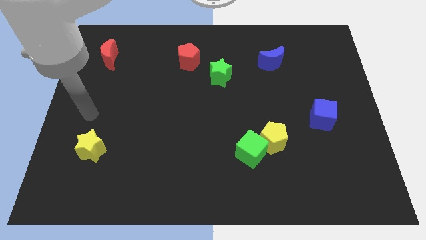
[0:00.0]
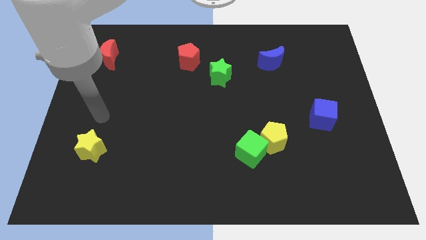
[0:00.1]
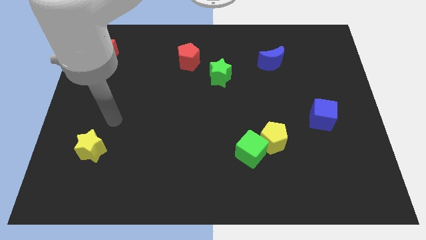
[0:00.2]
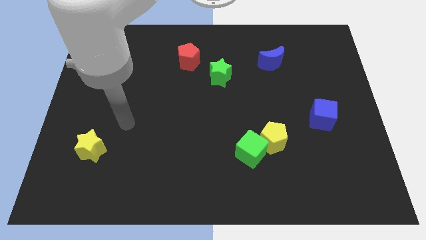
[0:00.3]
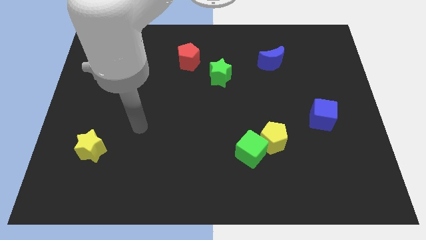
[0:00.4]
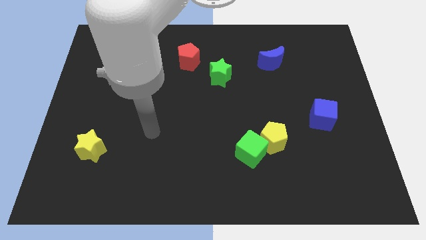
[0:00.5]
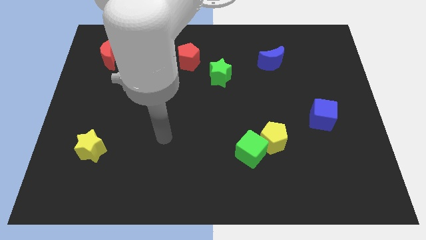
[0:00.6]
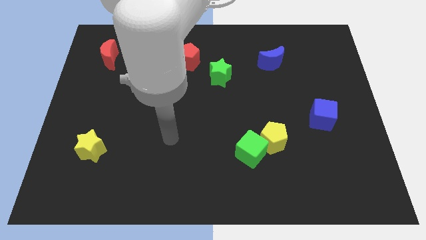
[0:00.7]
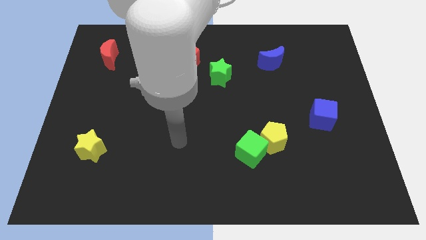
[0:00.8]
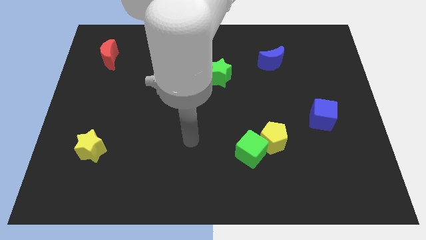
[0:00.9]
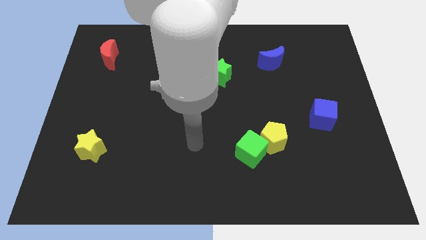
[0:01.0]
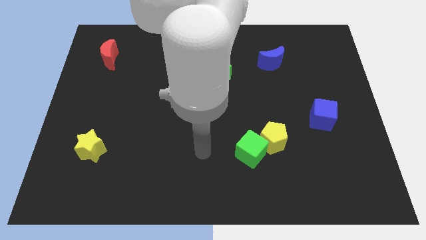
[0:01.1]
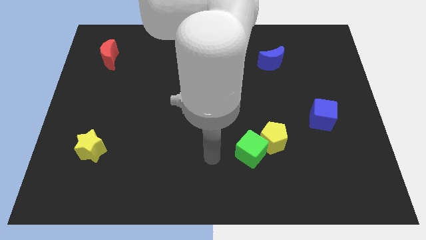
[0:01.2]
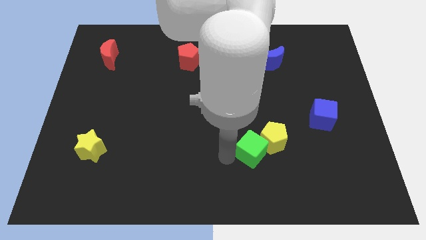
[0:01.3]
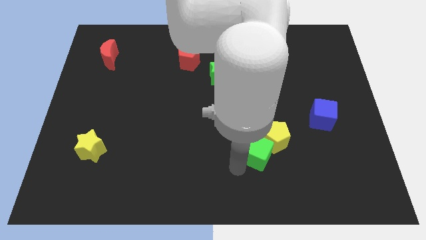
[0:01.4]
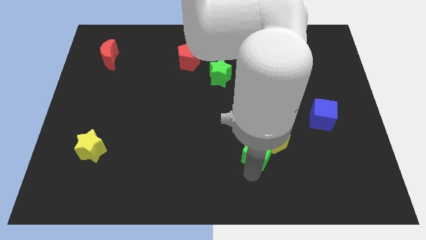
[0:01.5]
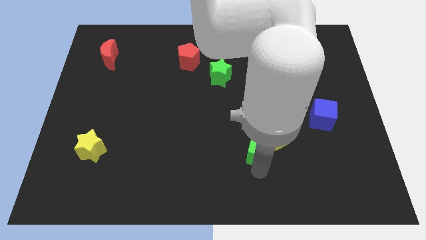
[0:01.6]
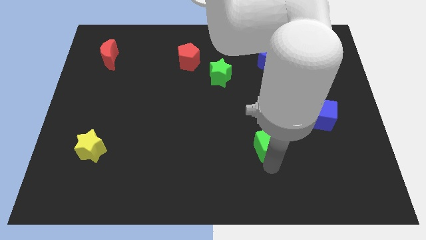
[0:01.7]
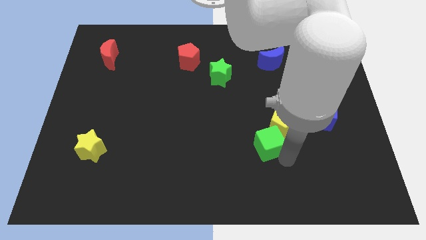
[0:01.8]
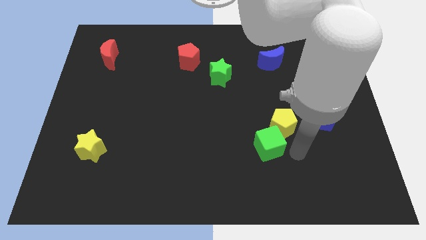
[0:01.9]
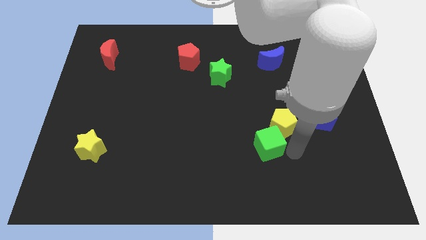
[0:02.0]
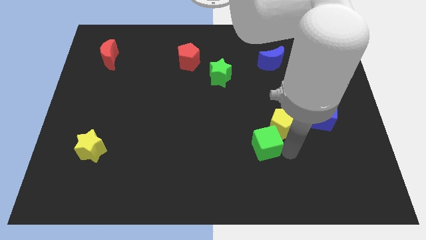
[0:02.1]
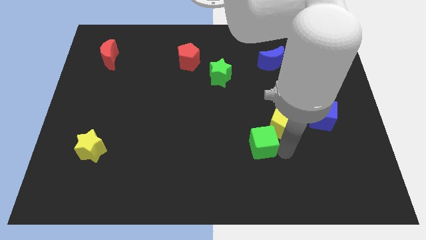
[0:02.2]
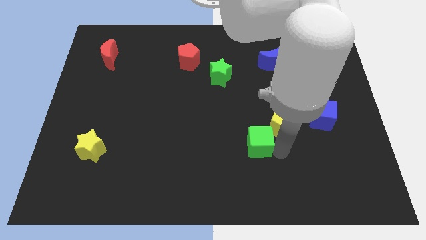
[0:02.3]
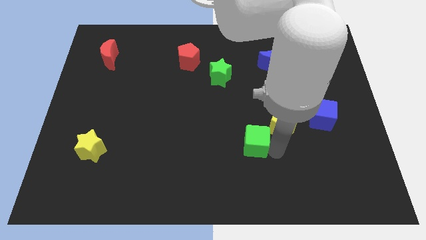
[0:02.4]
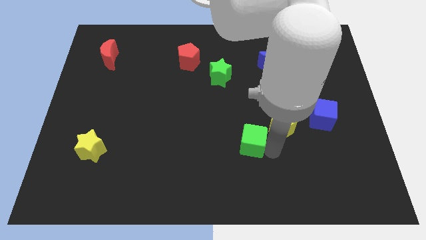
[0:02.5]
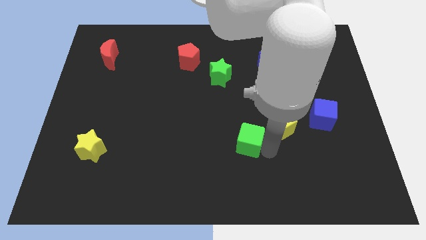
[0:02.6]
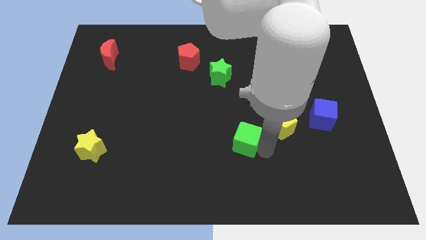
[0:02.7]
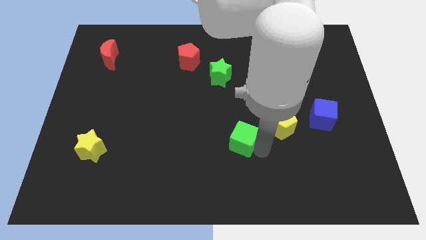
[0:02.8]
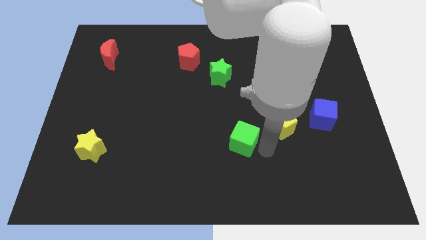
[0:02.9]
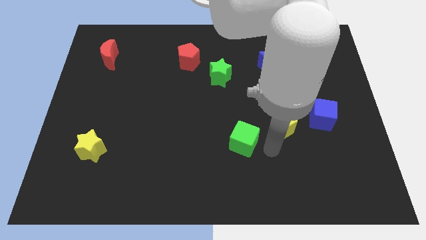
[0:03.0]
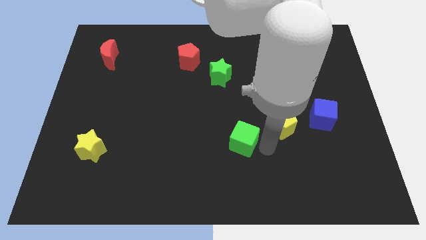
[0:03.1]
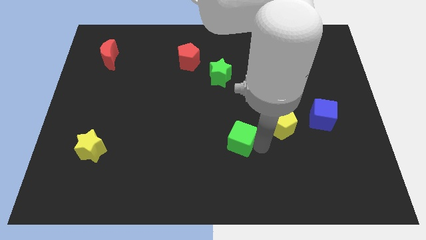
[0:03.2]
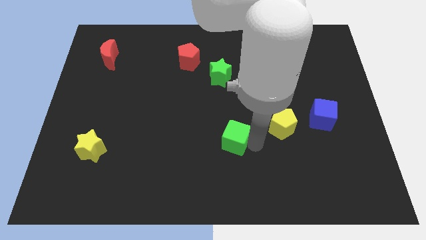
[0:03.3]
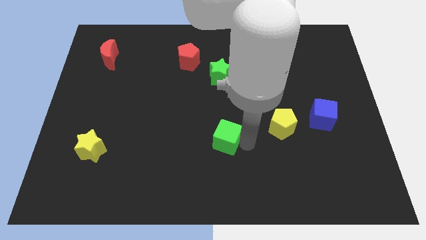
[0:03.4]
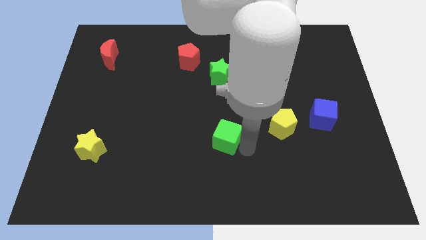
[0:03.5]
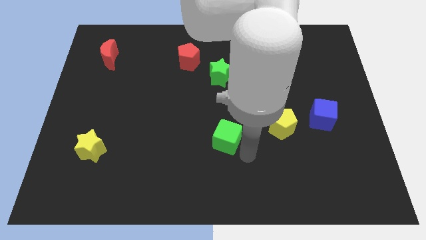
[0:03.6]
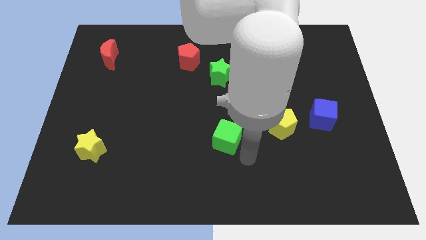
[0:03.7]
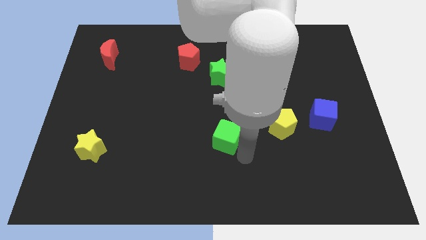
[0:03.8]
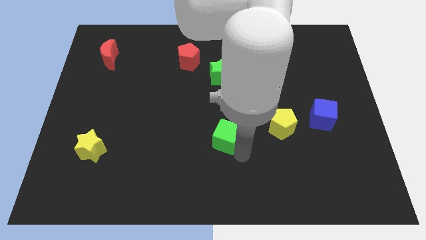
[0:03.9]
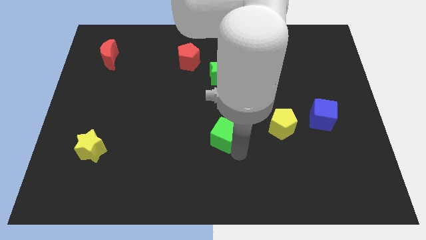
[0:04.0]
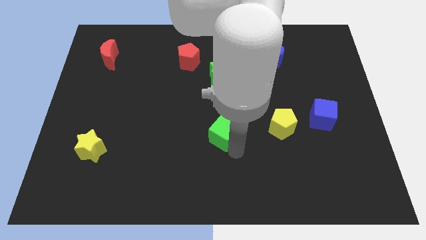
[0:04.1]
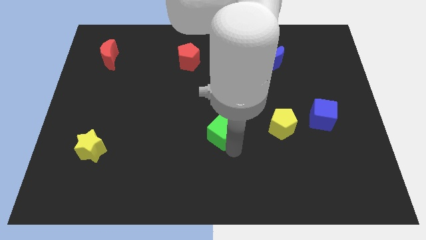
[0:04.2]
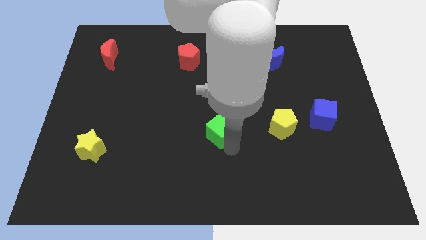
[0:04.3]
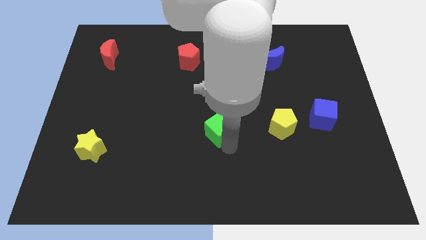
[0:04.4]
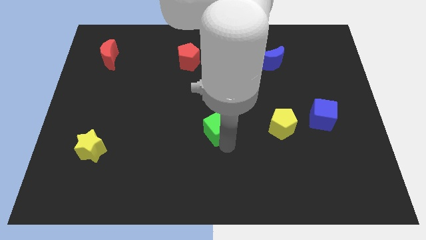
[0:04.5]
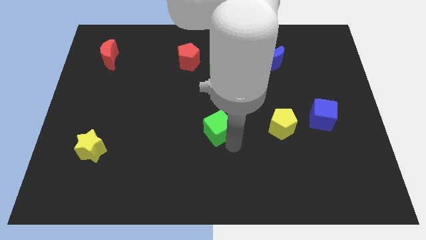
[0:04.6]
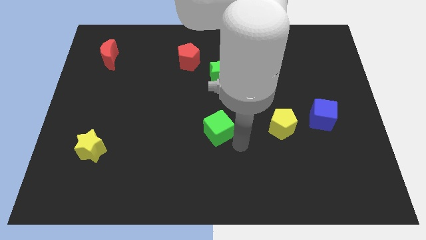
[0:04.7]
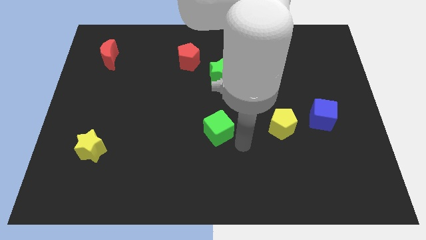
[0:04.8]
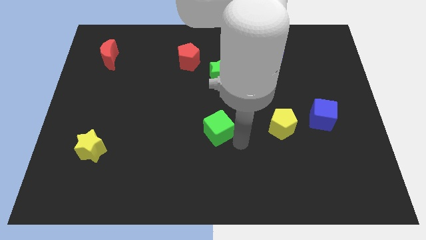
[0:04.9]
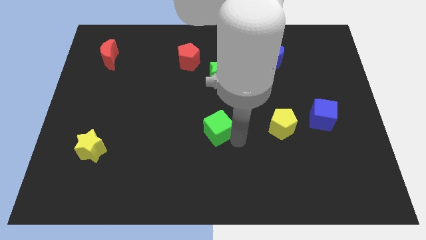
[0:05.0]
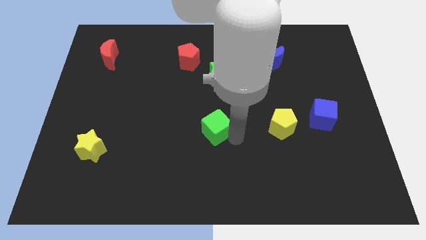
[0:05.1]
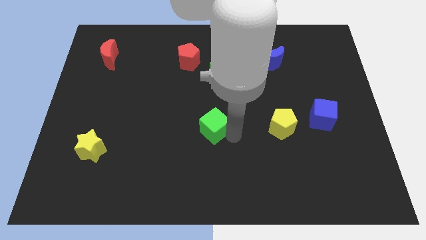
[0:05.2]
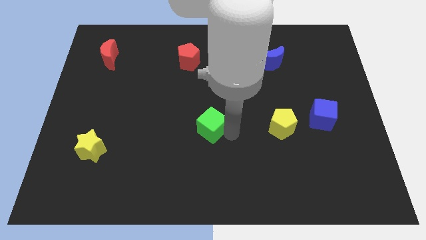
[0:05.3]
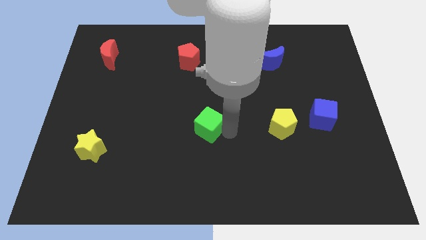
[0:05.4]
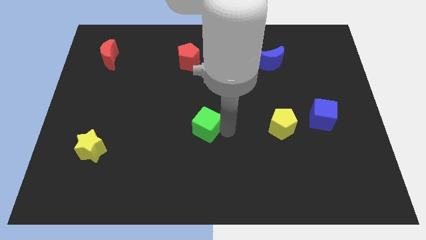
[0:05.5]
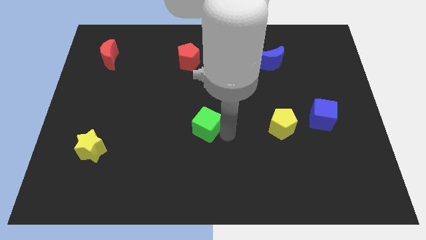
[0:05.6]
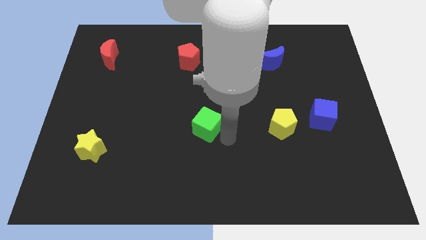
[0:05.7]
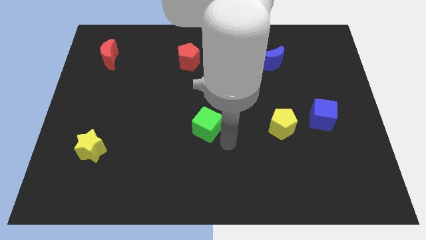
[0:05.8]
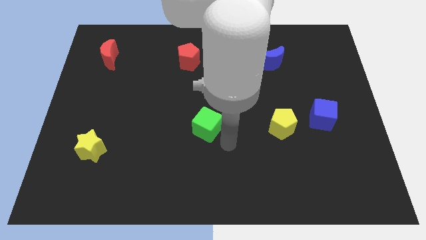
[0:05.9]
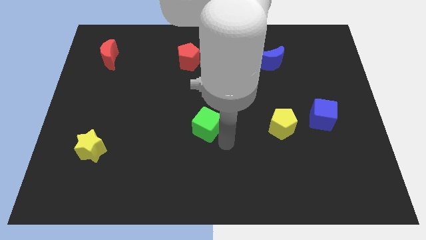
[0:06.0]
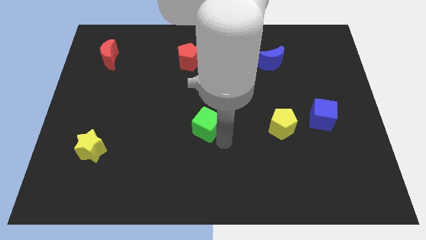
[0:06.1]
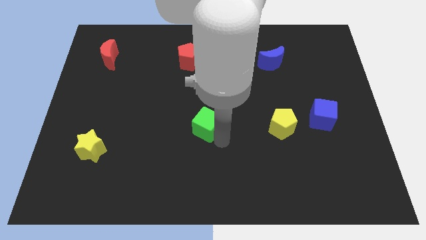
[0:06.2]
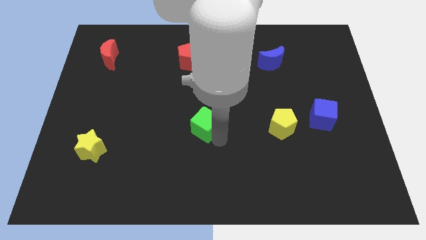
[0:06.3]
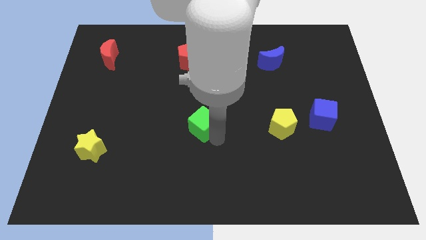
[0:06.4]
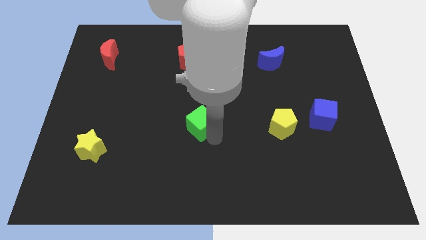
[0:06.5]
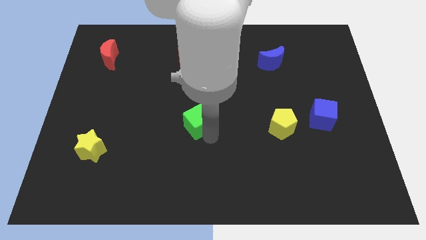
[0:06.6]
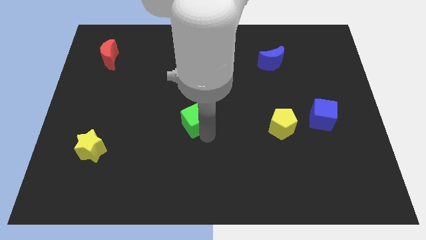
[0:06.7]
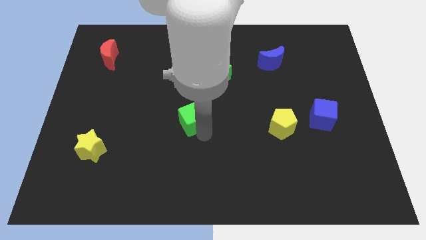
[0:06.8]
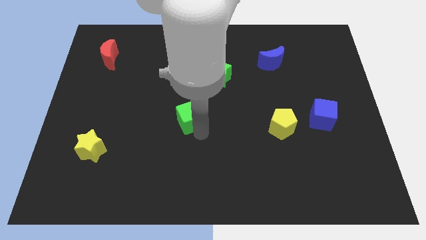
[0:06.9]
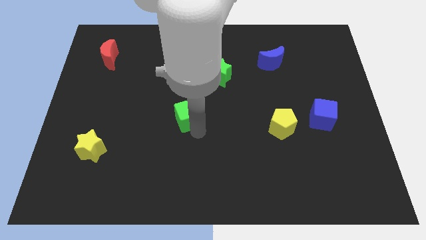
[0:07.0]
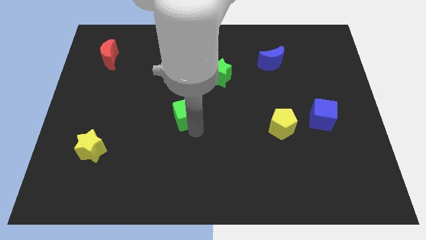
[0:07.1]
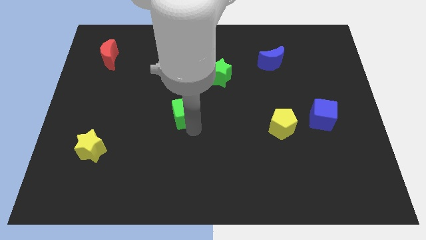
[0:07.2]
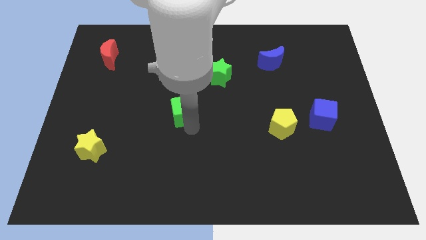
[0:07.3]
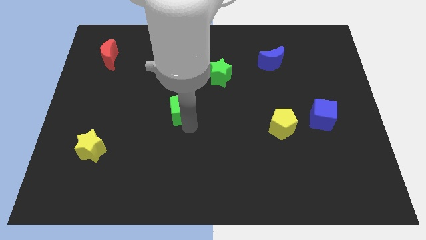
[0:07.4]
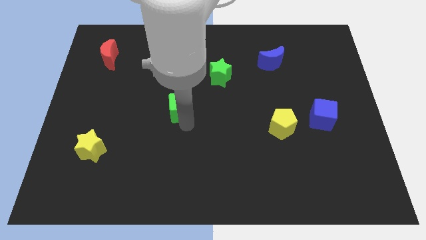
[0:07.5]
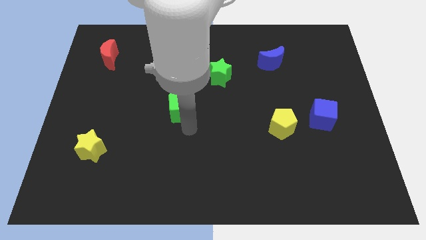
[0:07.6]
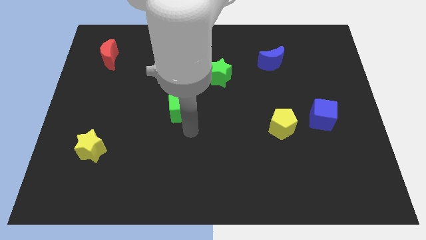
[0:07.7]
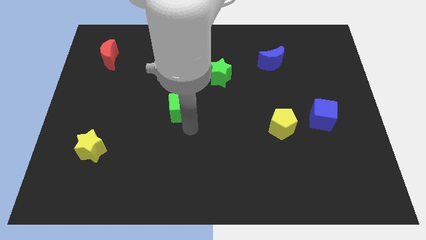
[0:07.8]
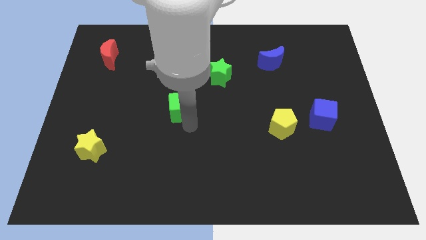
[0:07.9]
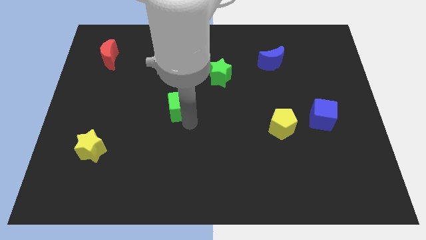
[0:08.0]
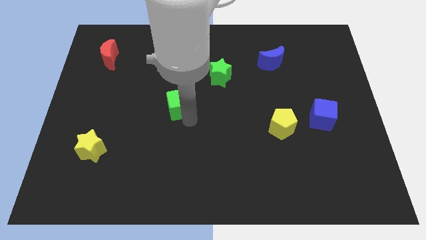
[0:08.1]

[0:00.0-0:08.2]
slide the green cube upwards and left

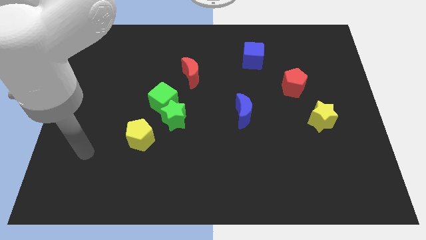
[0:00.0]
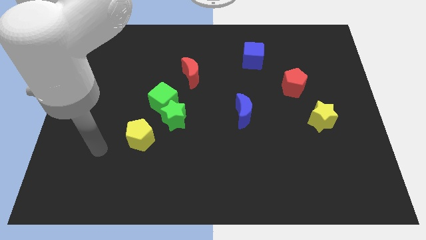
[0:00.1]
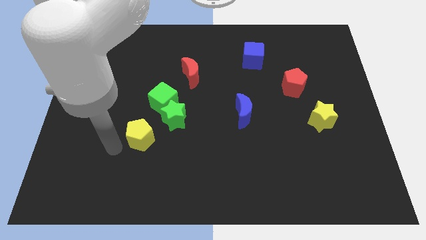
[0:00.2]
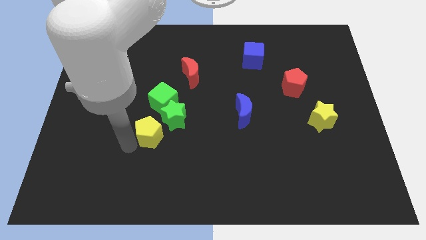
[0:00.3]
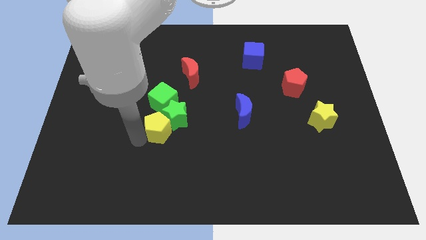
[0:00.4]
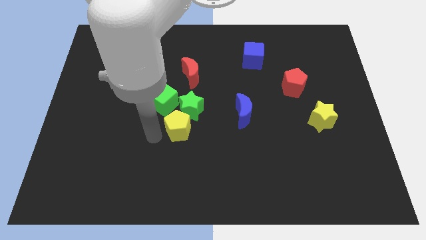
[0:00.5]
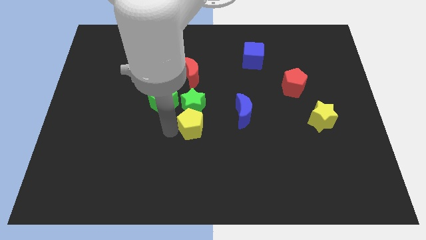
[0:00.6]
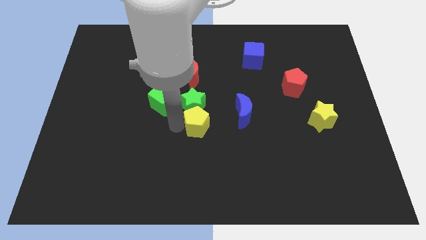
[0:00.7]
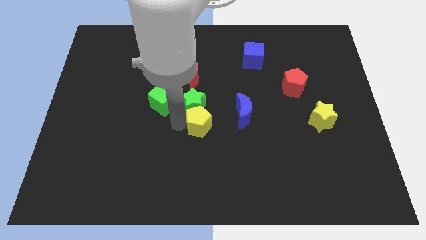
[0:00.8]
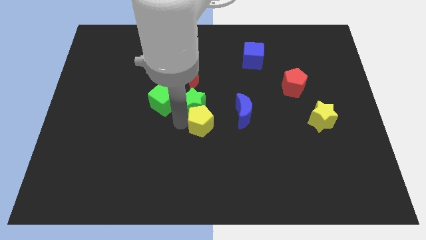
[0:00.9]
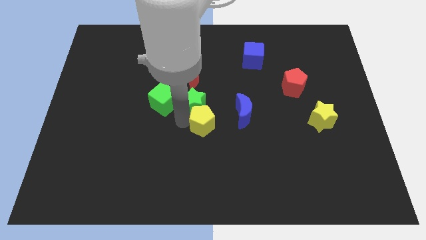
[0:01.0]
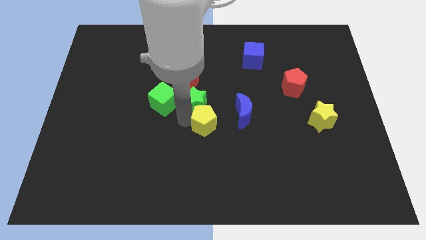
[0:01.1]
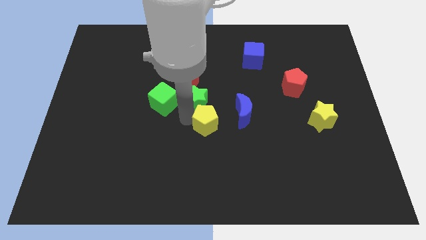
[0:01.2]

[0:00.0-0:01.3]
move the green star up and then right a bit
